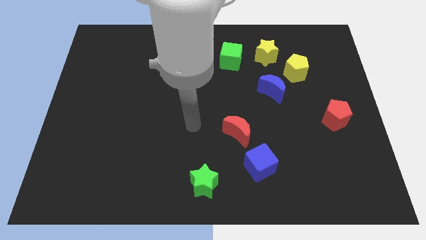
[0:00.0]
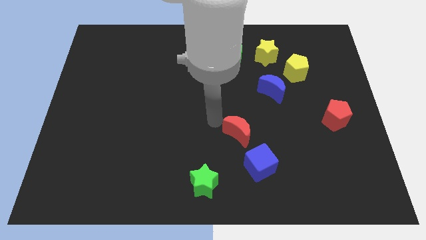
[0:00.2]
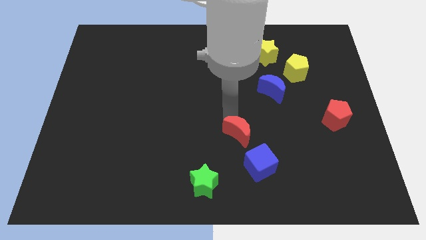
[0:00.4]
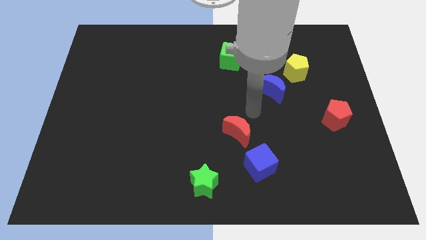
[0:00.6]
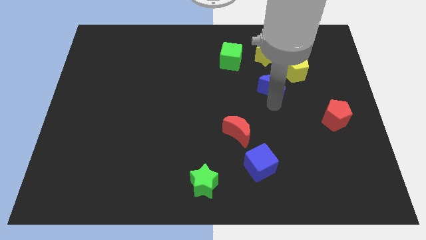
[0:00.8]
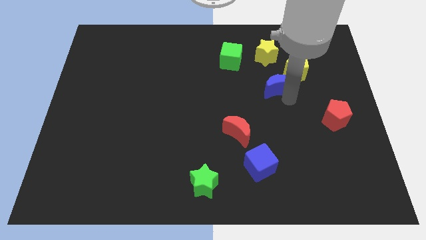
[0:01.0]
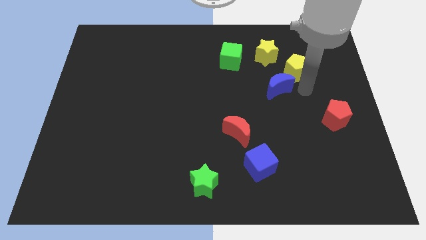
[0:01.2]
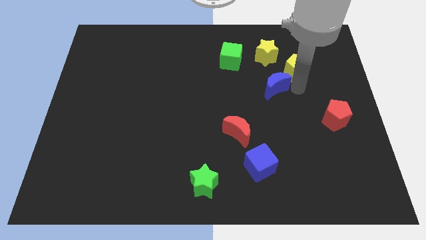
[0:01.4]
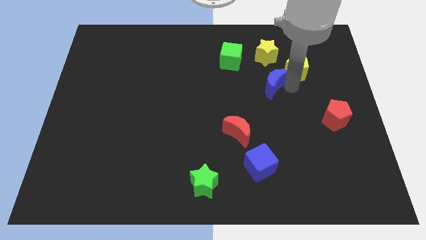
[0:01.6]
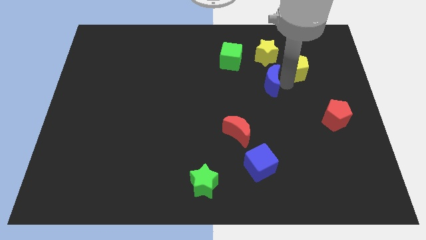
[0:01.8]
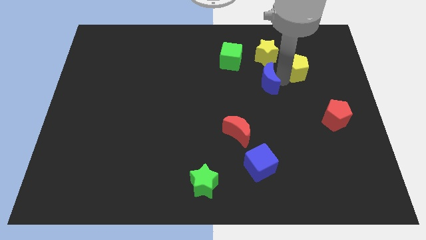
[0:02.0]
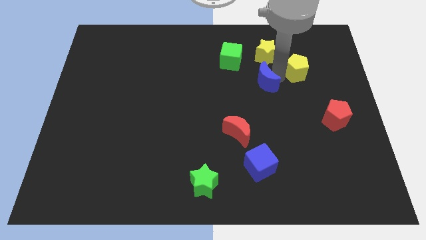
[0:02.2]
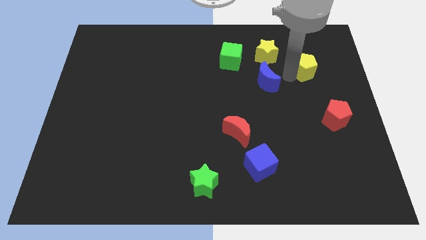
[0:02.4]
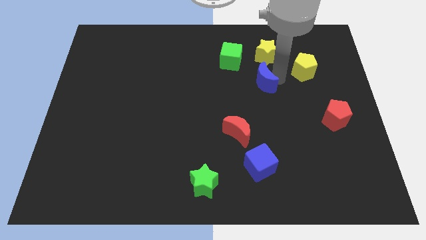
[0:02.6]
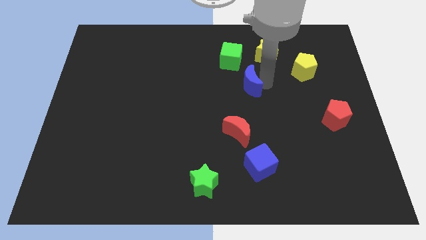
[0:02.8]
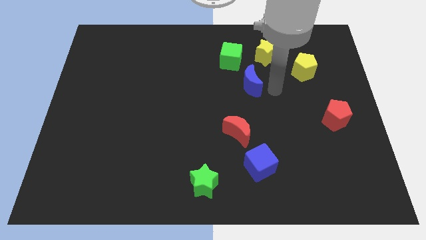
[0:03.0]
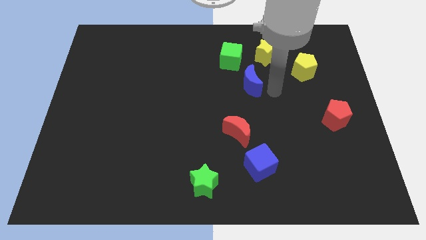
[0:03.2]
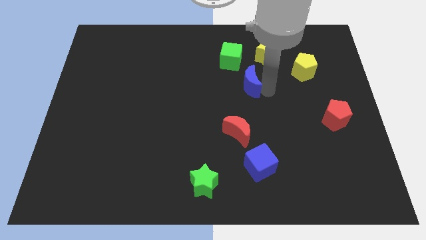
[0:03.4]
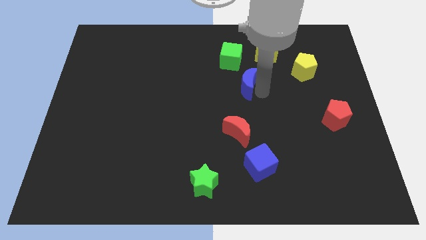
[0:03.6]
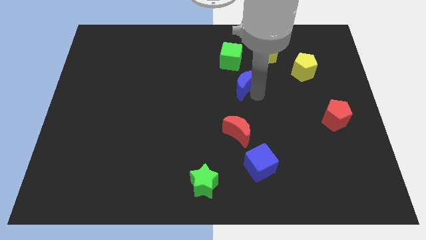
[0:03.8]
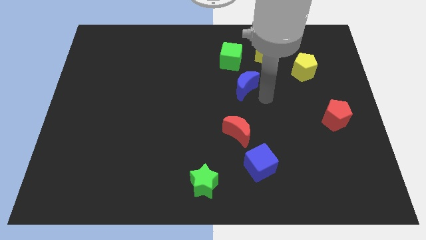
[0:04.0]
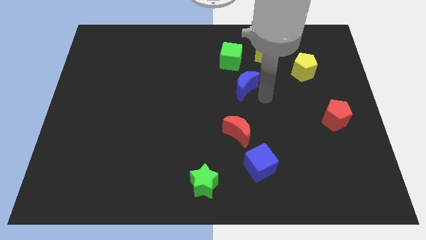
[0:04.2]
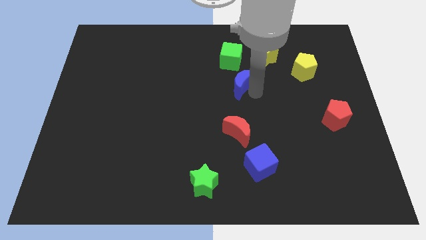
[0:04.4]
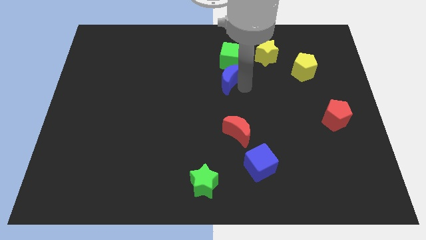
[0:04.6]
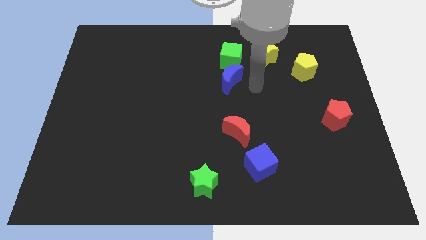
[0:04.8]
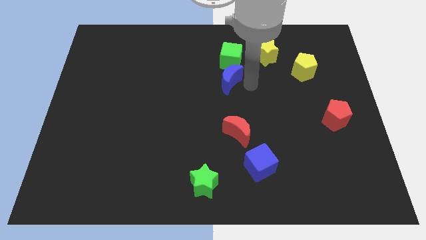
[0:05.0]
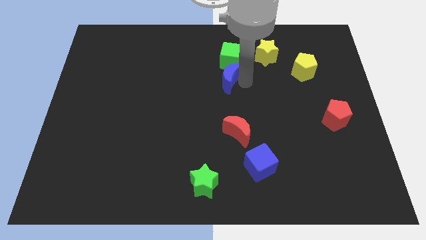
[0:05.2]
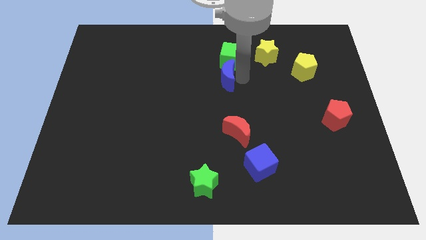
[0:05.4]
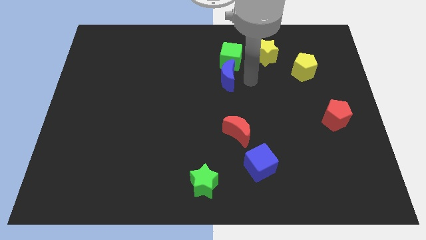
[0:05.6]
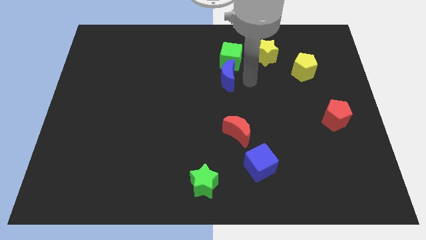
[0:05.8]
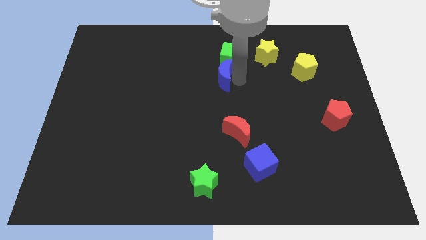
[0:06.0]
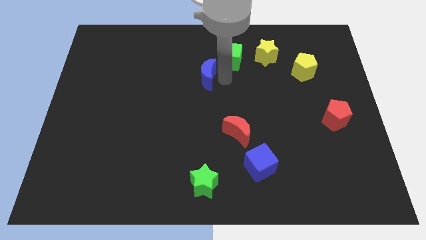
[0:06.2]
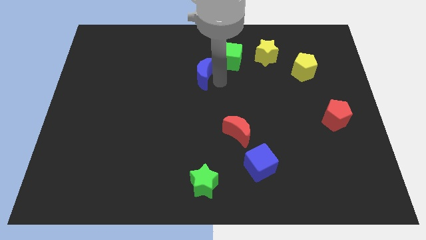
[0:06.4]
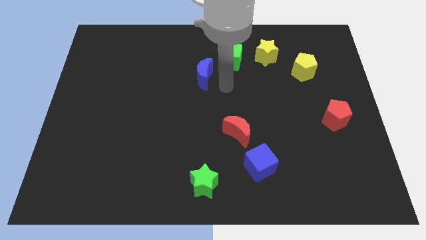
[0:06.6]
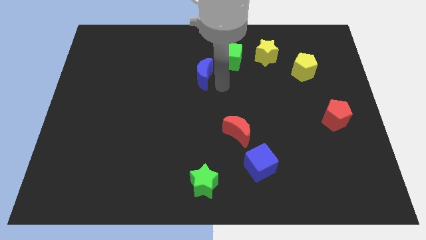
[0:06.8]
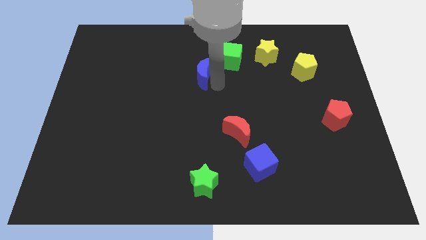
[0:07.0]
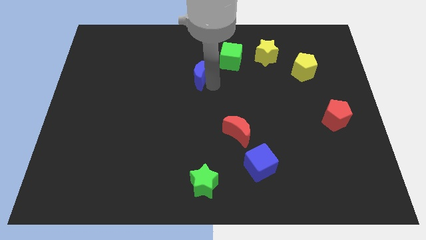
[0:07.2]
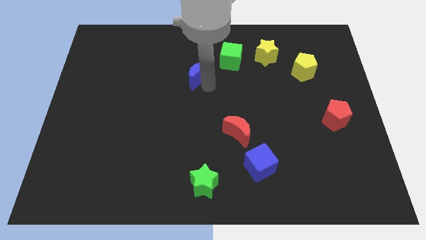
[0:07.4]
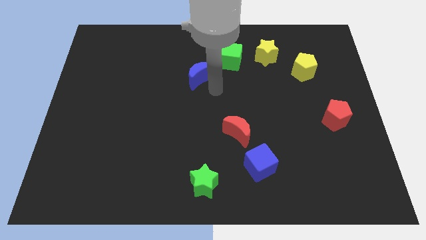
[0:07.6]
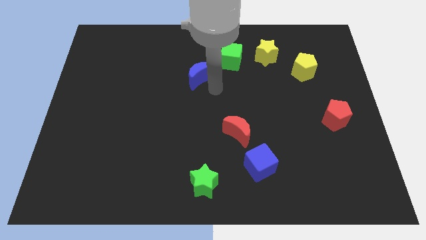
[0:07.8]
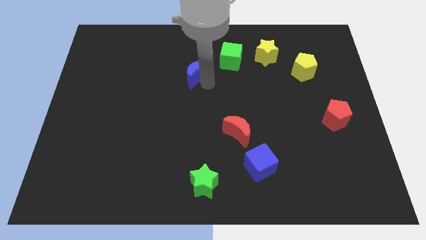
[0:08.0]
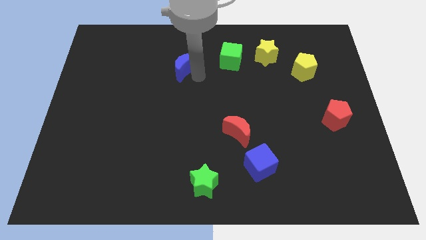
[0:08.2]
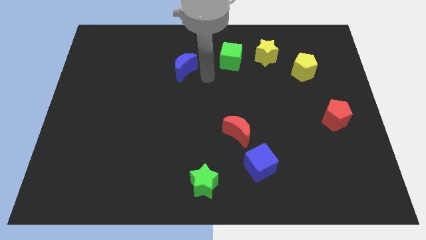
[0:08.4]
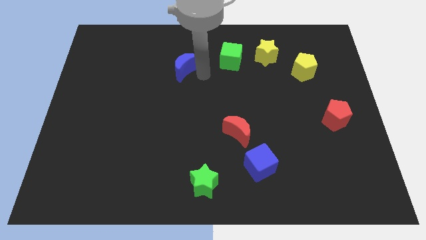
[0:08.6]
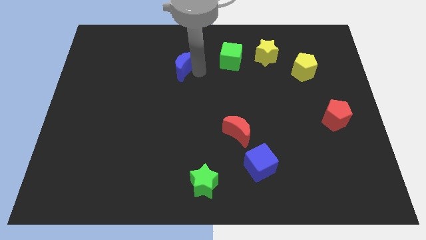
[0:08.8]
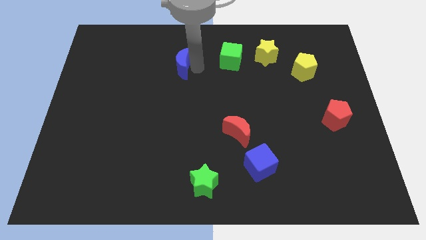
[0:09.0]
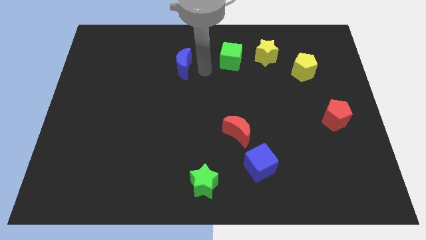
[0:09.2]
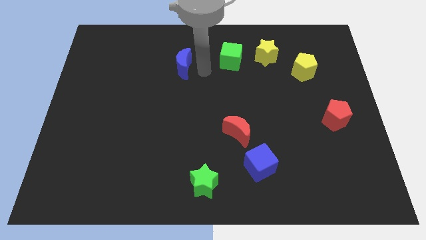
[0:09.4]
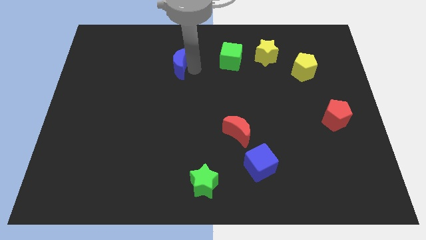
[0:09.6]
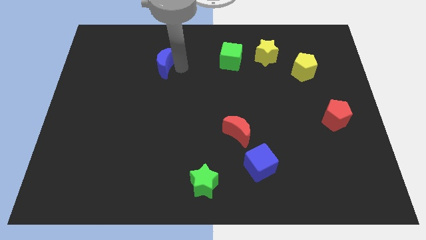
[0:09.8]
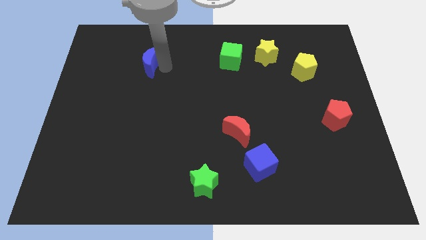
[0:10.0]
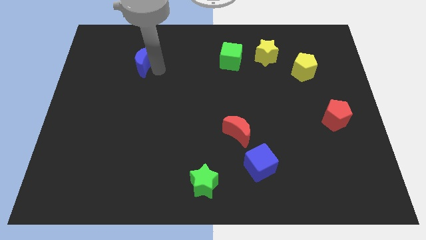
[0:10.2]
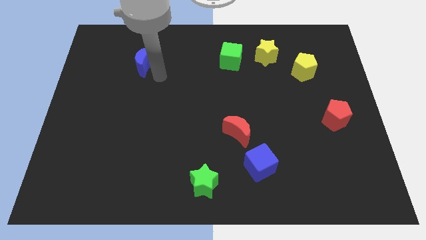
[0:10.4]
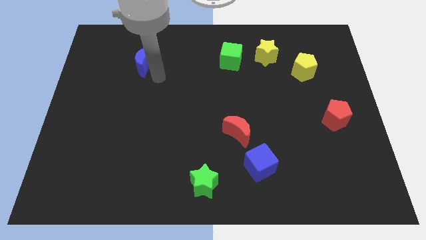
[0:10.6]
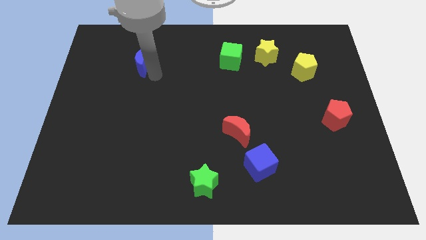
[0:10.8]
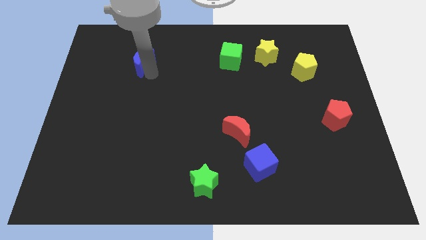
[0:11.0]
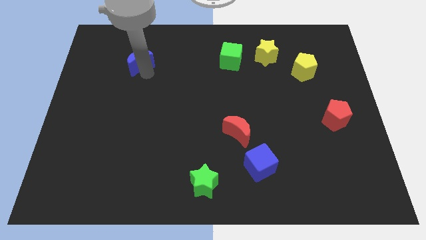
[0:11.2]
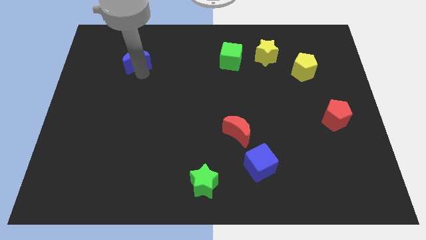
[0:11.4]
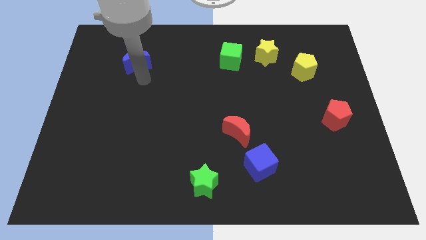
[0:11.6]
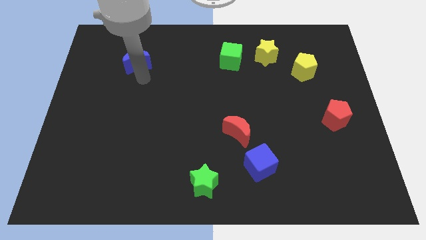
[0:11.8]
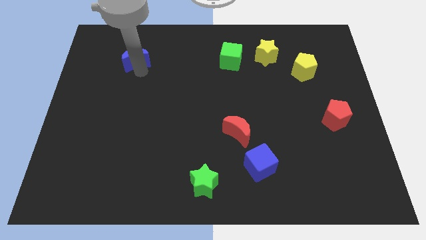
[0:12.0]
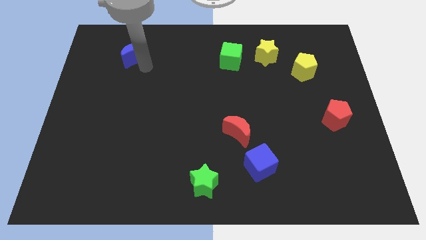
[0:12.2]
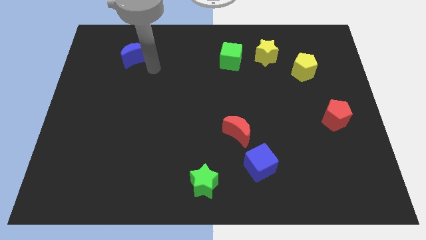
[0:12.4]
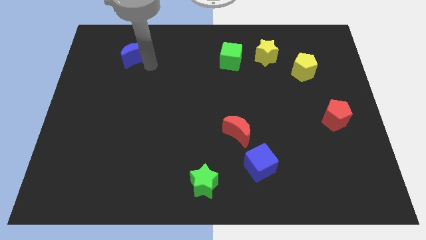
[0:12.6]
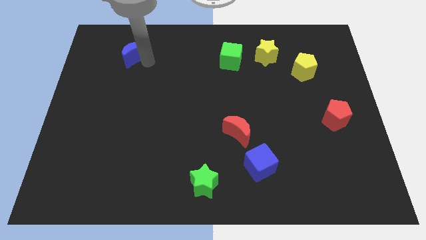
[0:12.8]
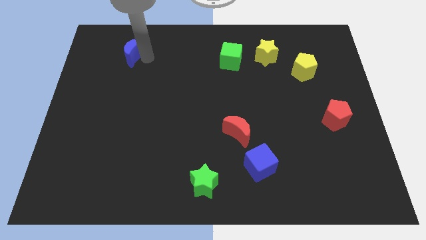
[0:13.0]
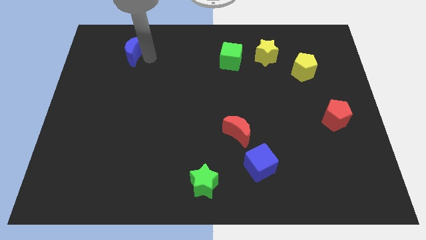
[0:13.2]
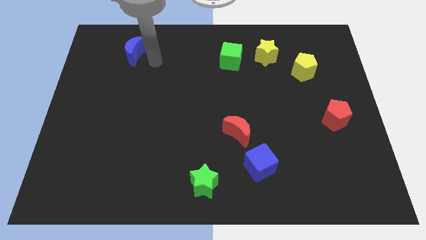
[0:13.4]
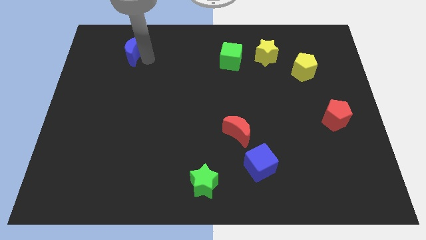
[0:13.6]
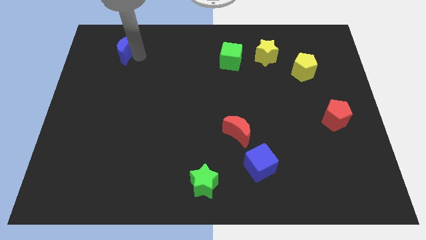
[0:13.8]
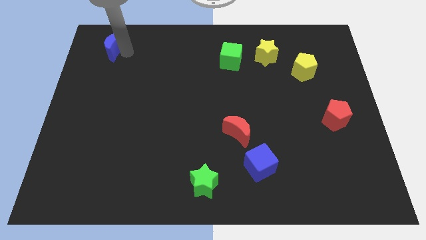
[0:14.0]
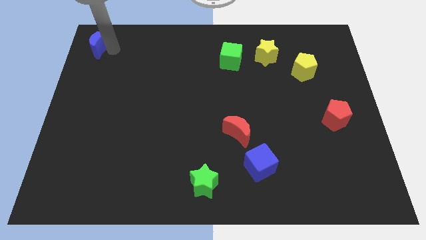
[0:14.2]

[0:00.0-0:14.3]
move the blue moon to the top left corner
